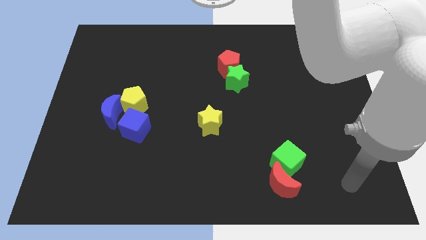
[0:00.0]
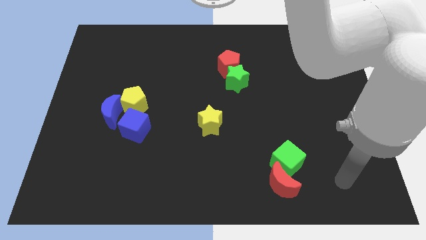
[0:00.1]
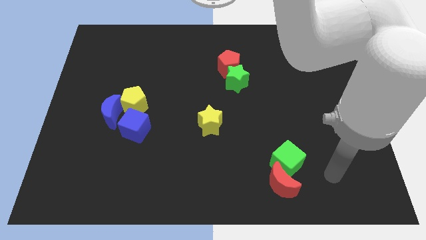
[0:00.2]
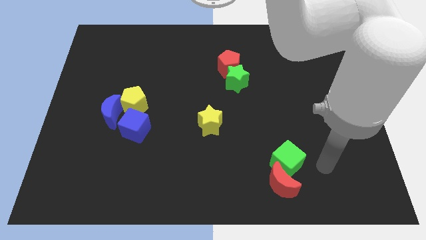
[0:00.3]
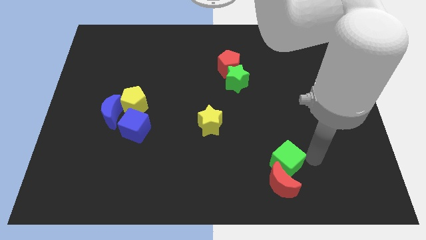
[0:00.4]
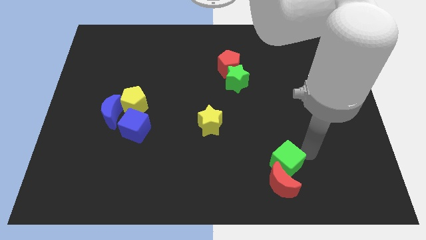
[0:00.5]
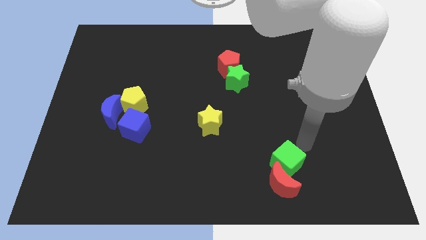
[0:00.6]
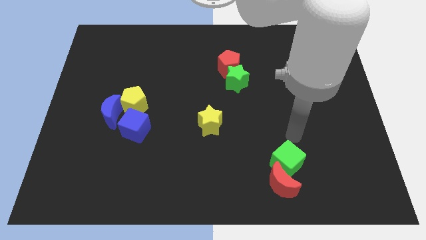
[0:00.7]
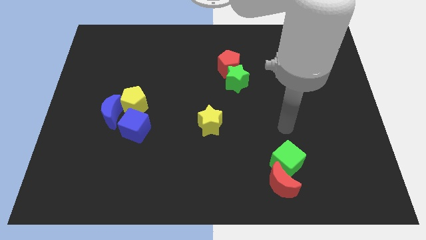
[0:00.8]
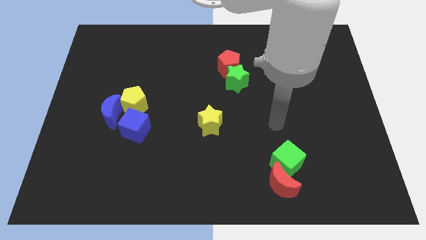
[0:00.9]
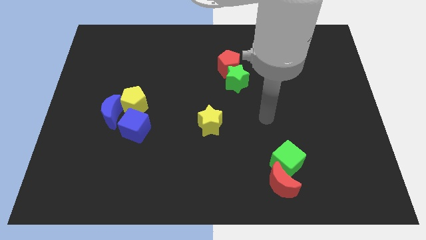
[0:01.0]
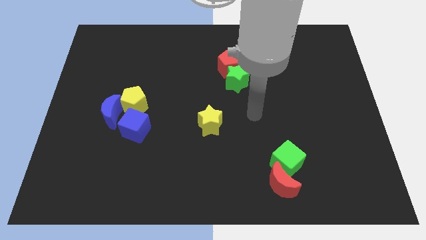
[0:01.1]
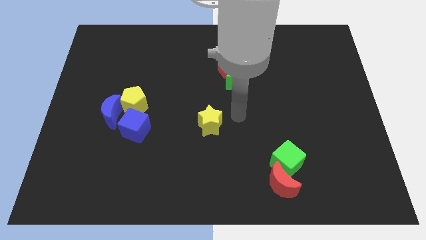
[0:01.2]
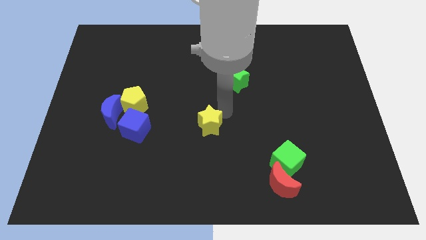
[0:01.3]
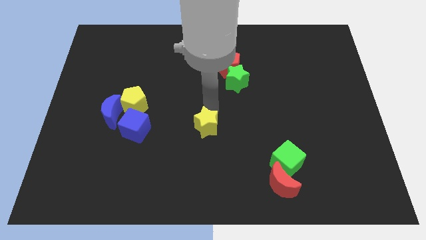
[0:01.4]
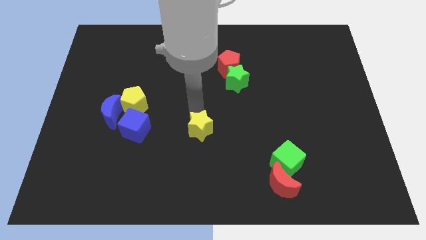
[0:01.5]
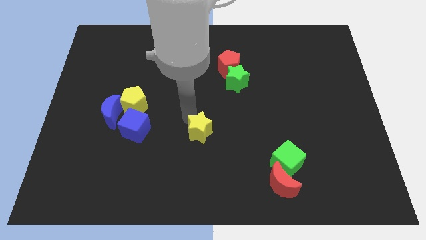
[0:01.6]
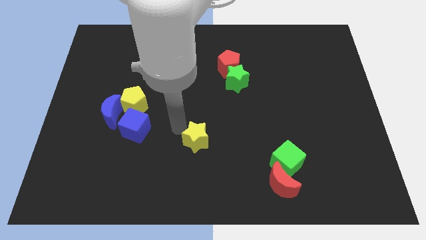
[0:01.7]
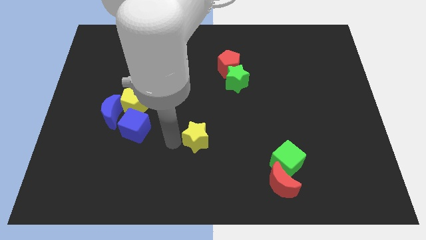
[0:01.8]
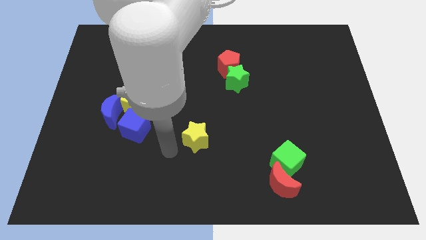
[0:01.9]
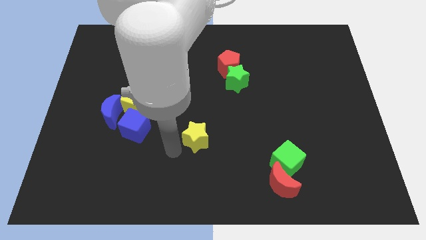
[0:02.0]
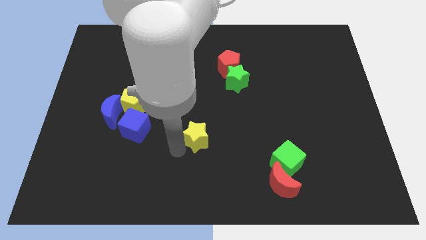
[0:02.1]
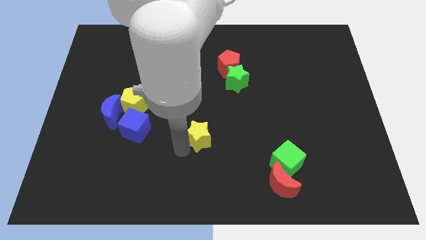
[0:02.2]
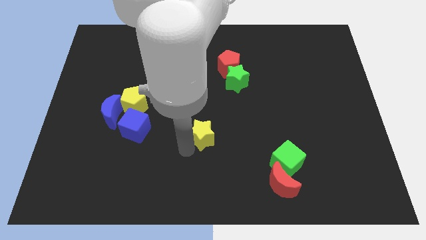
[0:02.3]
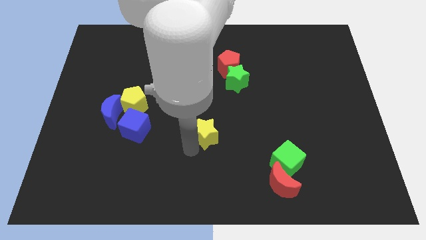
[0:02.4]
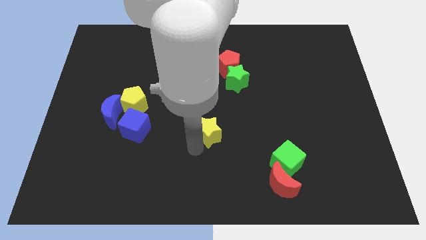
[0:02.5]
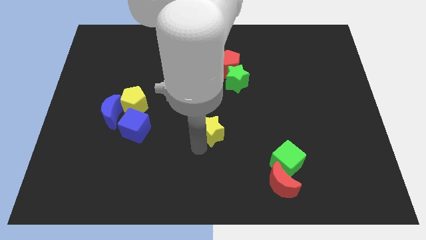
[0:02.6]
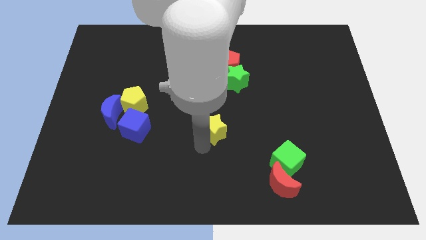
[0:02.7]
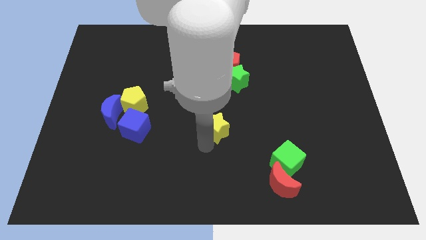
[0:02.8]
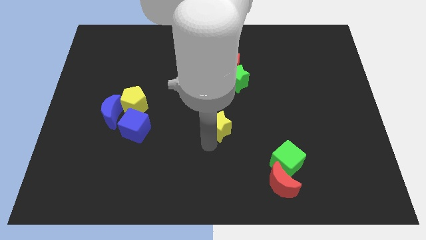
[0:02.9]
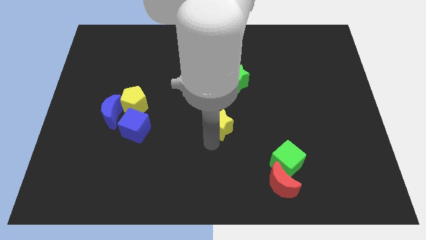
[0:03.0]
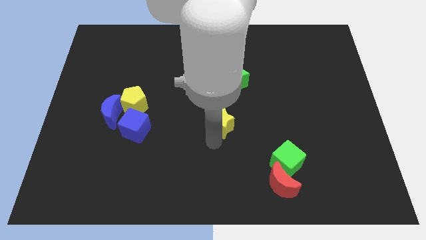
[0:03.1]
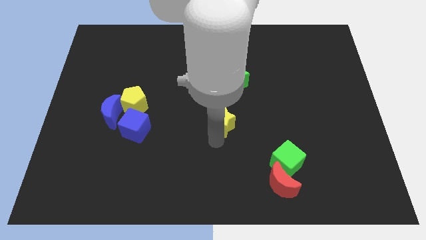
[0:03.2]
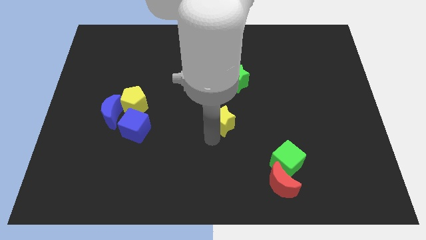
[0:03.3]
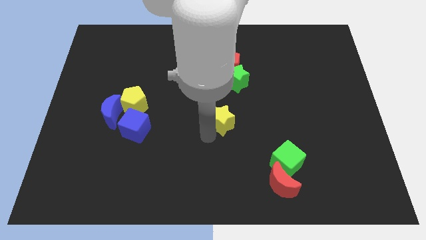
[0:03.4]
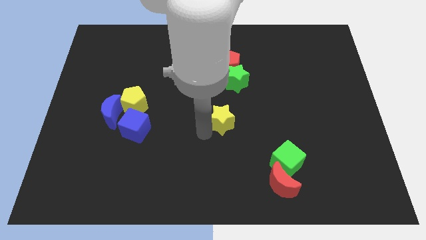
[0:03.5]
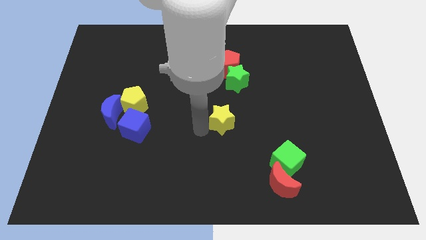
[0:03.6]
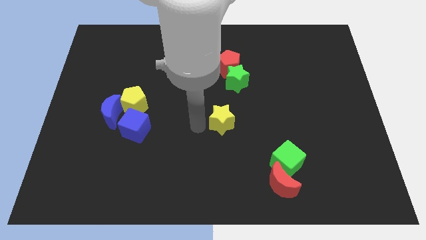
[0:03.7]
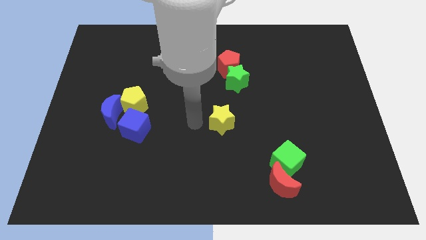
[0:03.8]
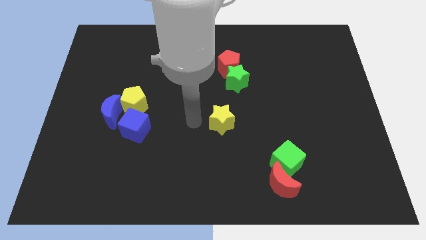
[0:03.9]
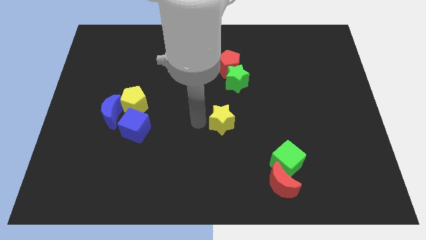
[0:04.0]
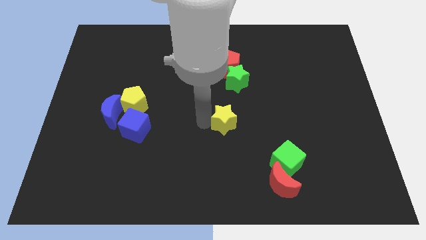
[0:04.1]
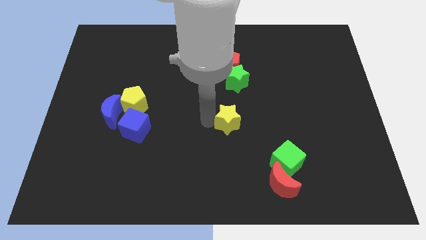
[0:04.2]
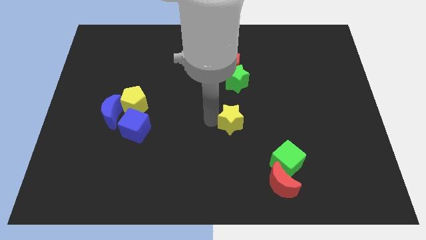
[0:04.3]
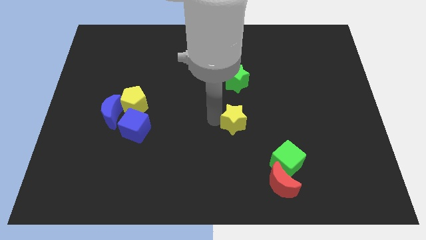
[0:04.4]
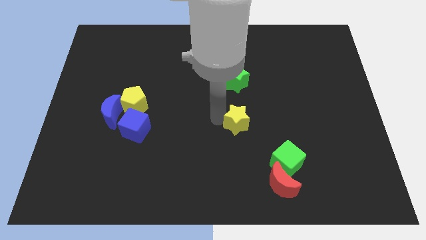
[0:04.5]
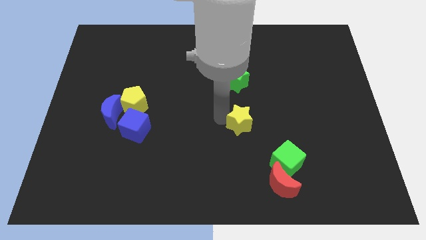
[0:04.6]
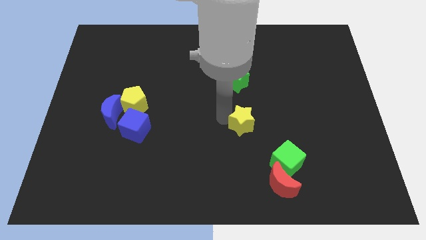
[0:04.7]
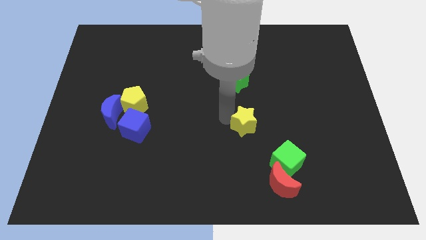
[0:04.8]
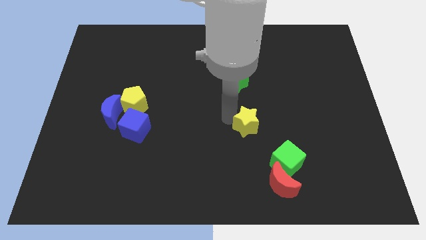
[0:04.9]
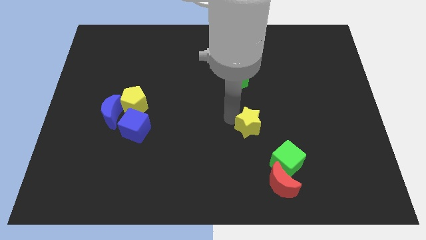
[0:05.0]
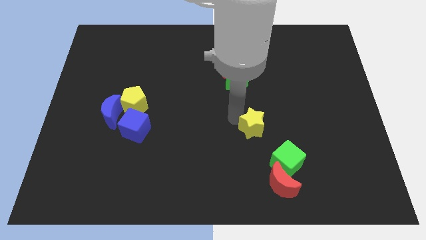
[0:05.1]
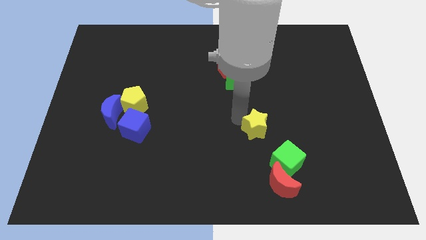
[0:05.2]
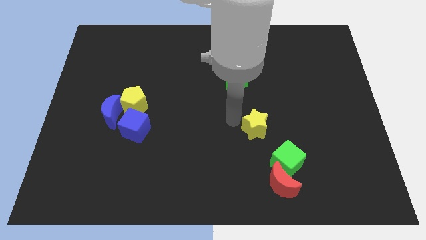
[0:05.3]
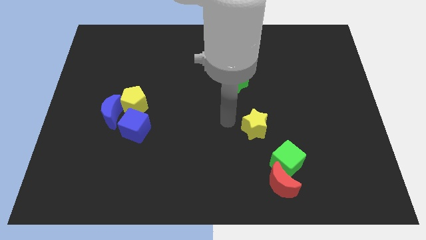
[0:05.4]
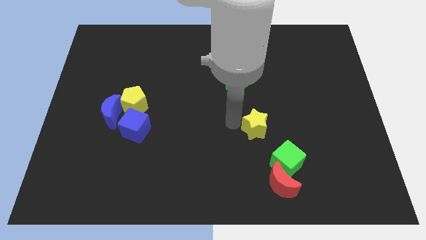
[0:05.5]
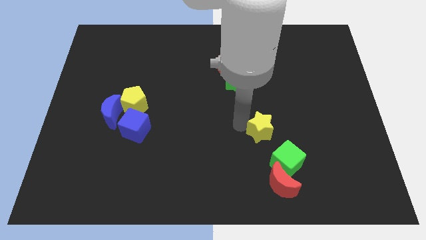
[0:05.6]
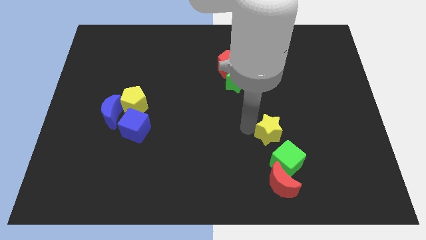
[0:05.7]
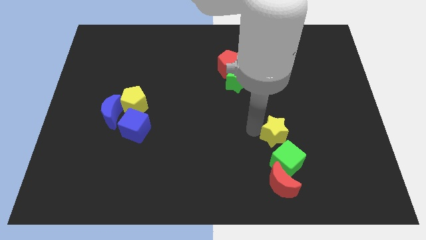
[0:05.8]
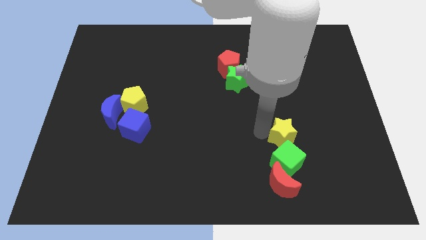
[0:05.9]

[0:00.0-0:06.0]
move the yellow star to the top right side of the green cube

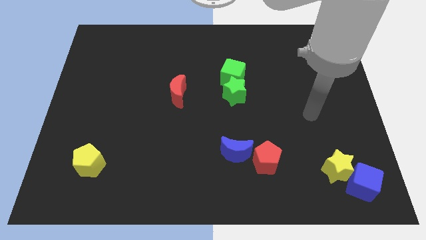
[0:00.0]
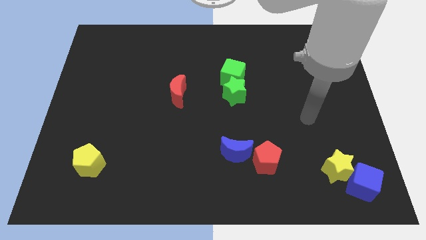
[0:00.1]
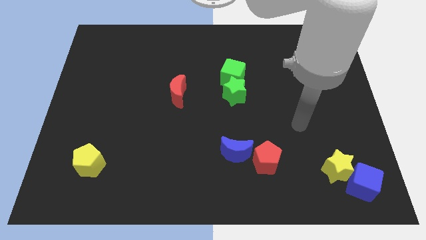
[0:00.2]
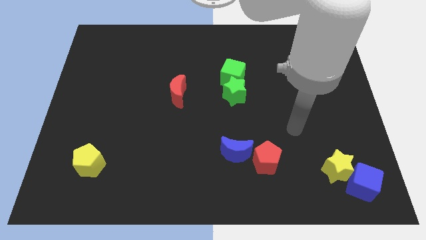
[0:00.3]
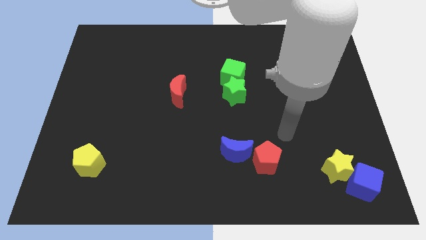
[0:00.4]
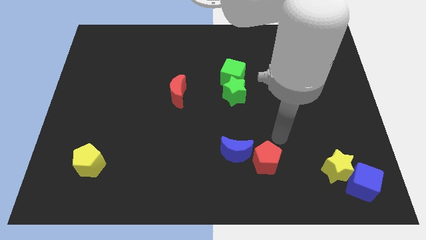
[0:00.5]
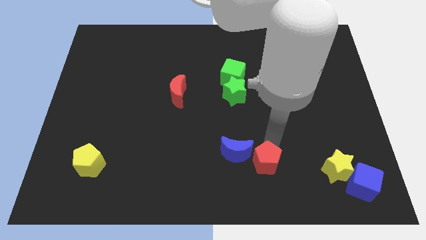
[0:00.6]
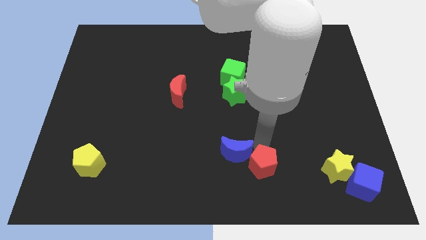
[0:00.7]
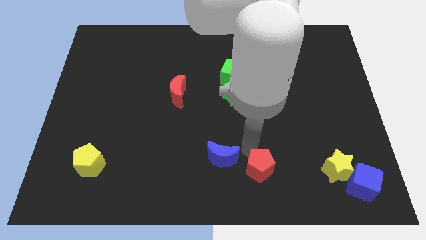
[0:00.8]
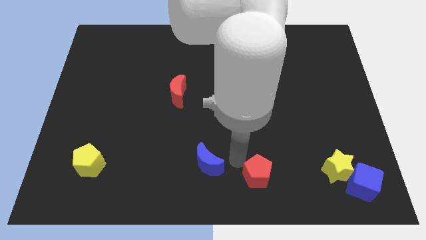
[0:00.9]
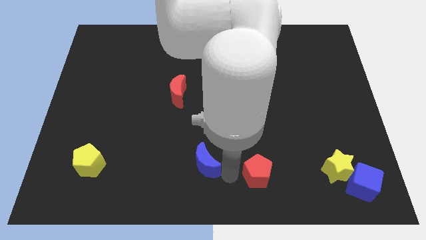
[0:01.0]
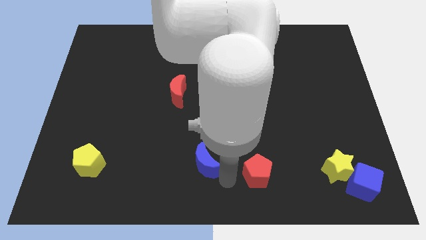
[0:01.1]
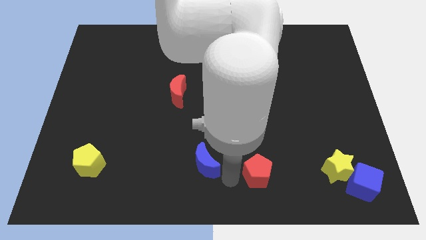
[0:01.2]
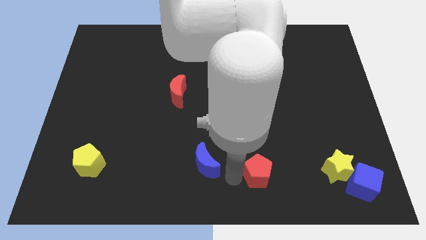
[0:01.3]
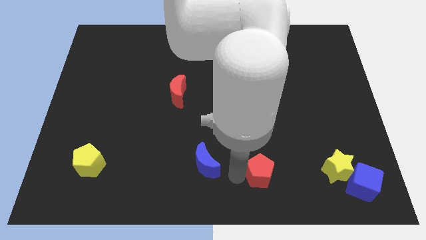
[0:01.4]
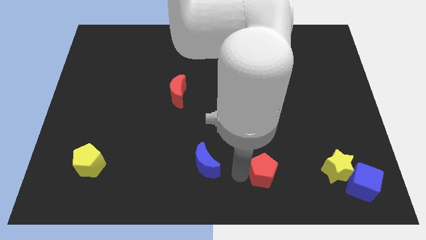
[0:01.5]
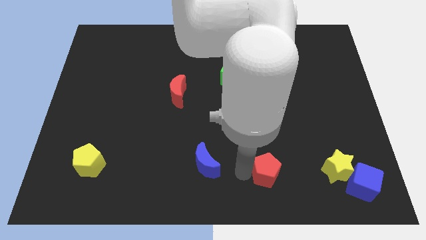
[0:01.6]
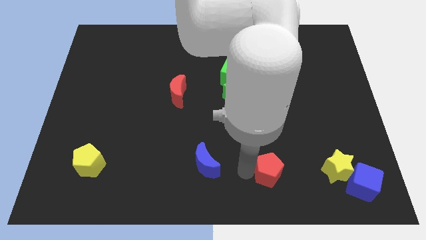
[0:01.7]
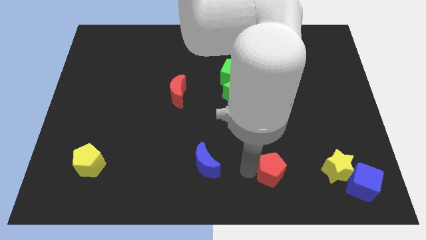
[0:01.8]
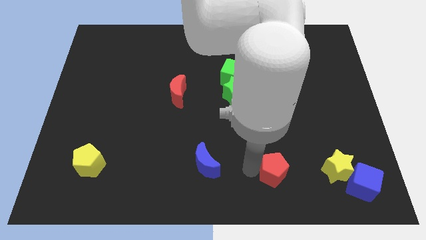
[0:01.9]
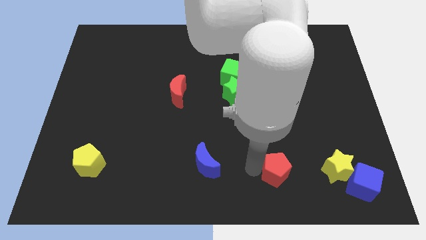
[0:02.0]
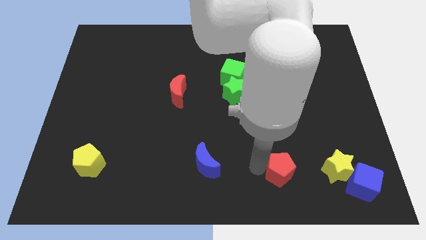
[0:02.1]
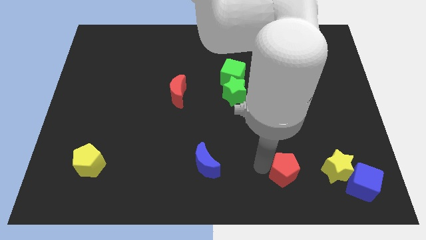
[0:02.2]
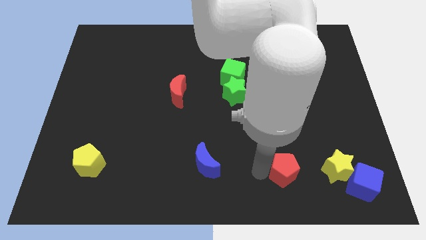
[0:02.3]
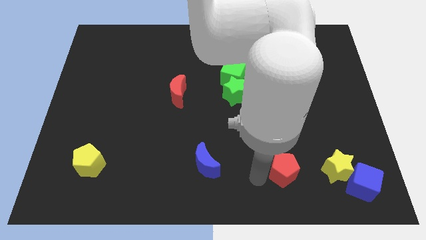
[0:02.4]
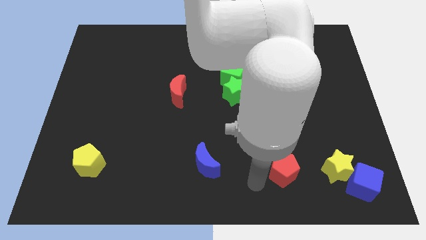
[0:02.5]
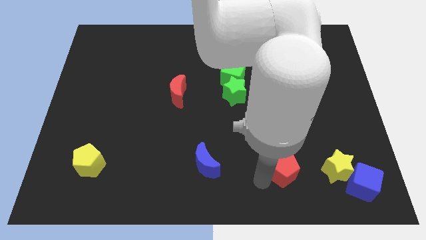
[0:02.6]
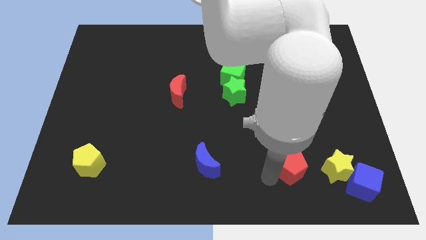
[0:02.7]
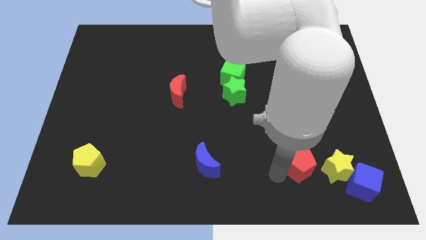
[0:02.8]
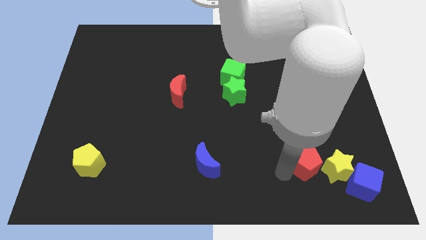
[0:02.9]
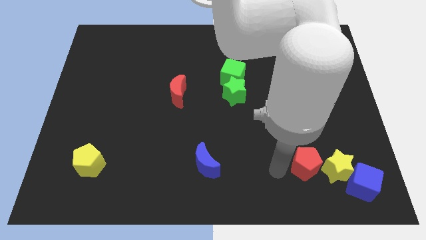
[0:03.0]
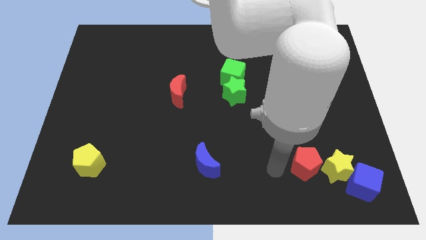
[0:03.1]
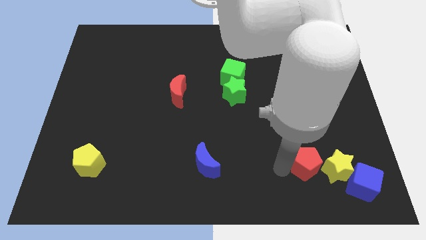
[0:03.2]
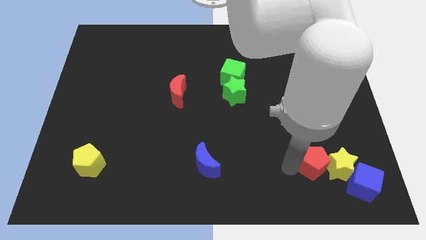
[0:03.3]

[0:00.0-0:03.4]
push the red pentagon diagonally up and to the left of the blue cube
